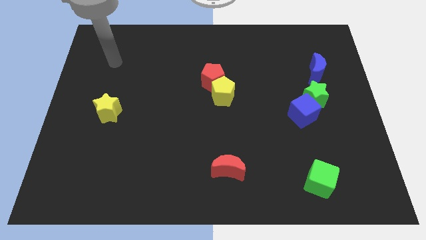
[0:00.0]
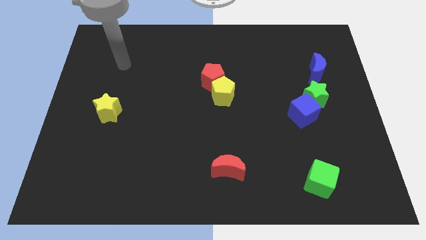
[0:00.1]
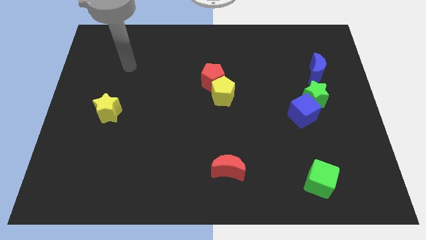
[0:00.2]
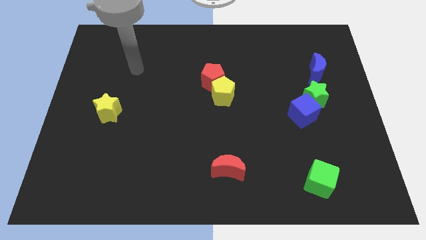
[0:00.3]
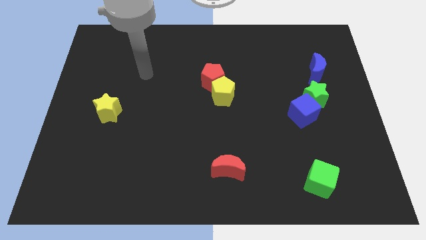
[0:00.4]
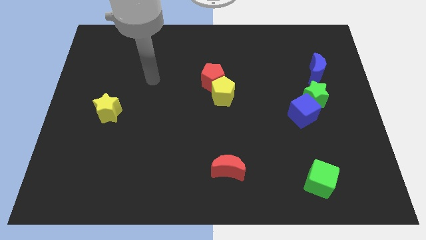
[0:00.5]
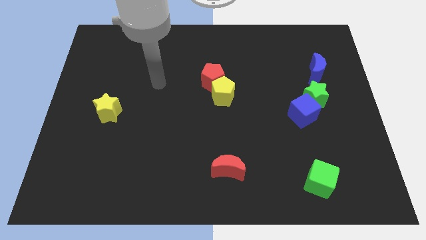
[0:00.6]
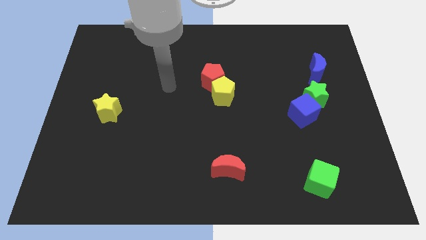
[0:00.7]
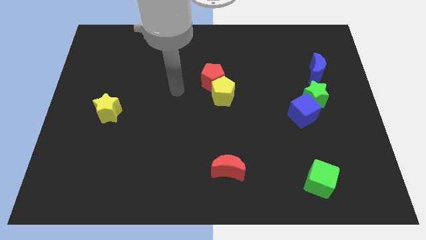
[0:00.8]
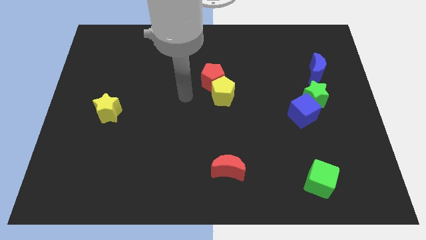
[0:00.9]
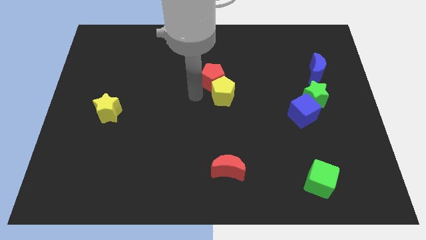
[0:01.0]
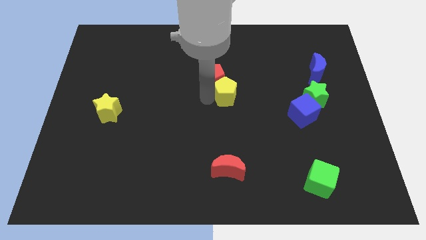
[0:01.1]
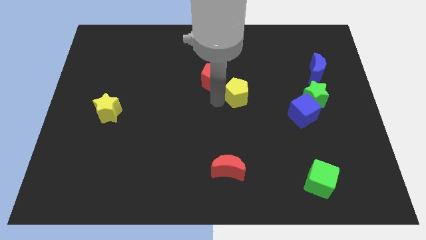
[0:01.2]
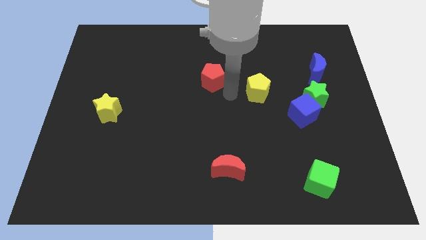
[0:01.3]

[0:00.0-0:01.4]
move the red pentagon away from the yellow pentagon

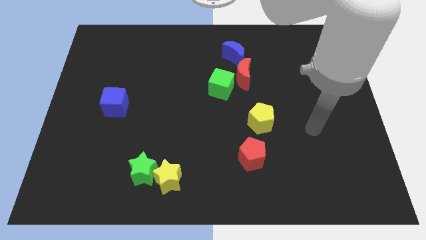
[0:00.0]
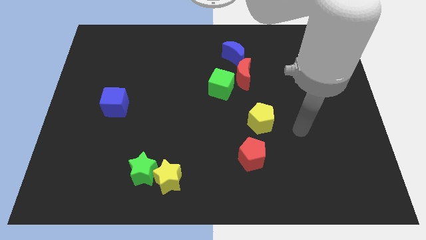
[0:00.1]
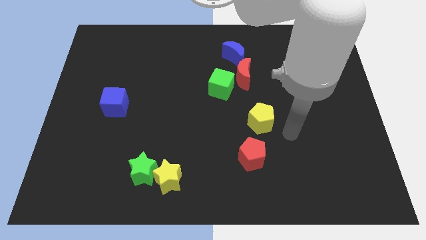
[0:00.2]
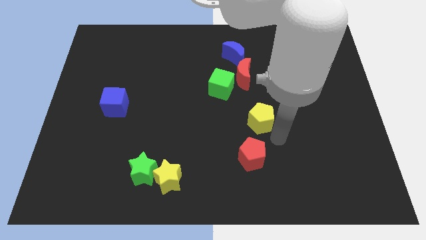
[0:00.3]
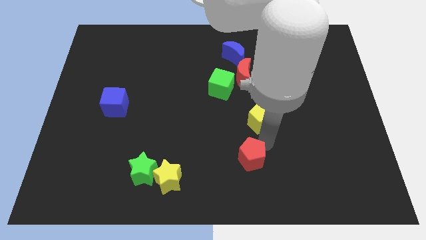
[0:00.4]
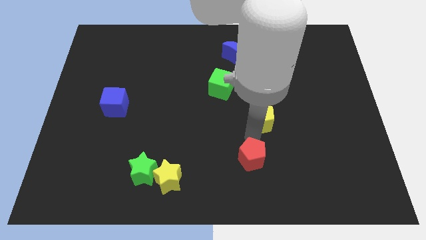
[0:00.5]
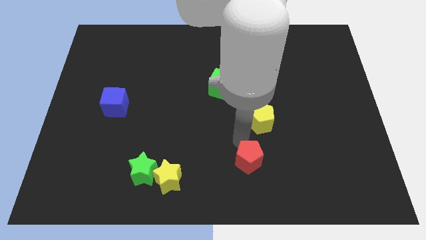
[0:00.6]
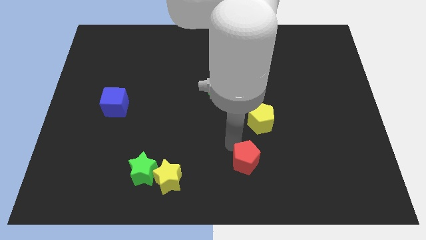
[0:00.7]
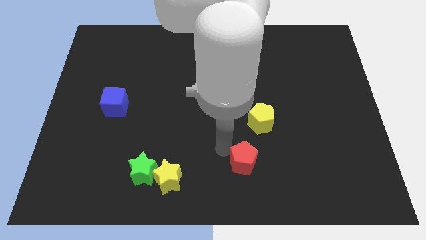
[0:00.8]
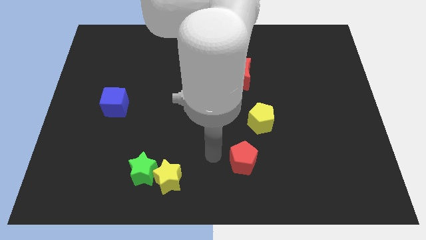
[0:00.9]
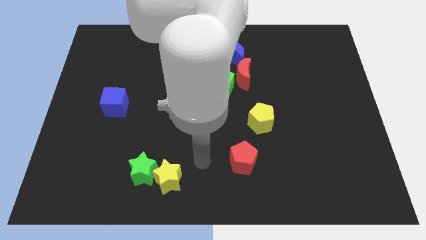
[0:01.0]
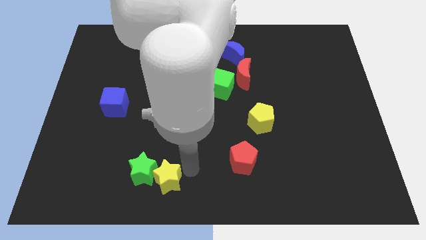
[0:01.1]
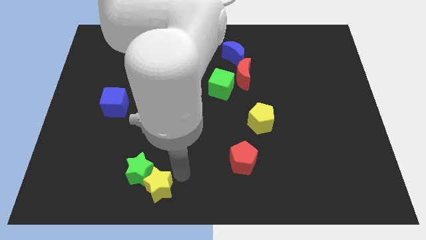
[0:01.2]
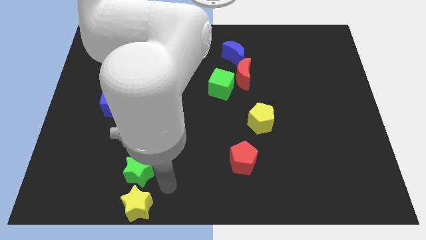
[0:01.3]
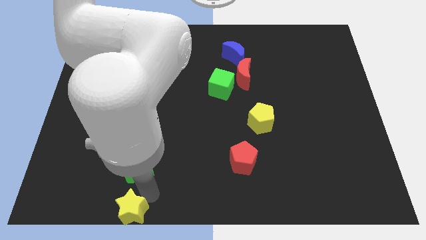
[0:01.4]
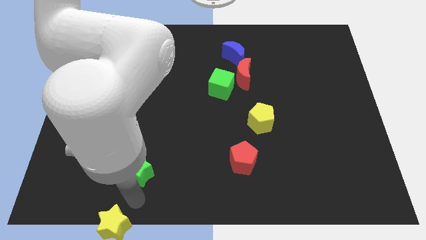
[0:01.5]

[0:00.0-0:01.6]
move the green star away from the yellow star

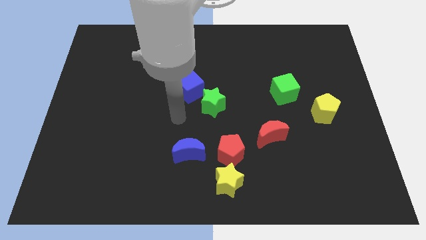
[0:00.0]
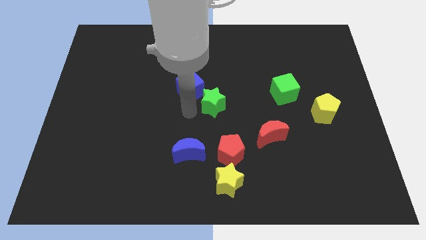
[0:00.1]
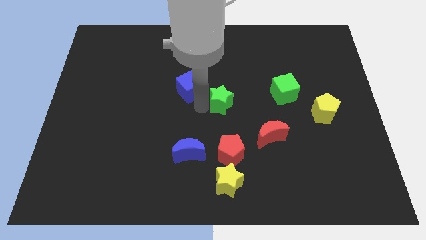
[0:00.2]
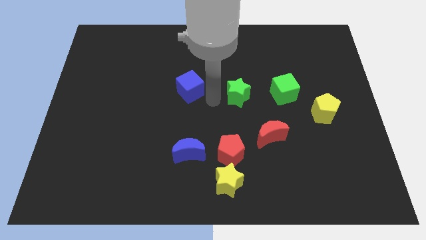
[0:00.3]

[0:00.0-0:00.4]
separate the blue cube from the green star

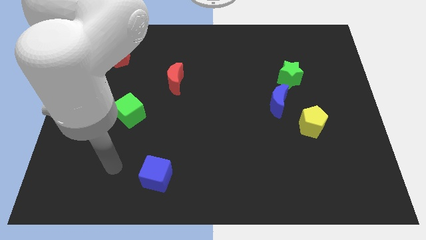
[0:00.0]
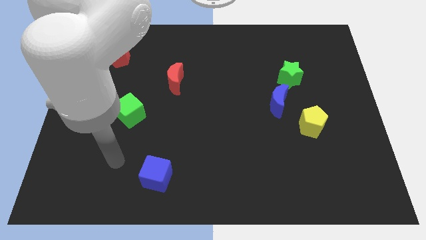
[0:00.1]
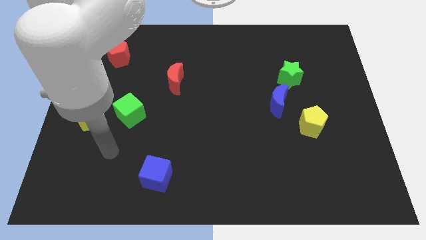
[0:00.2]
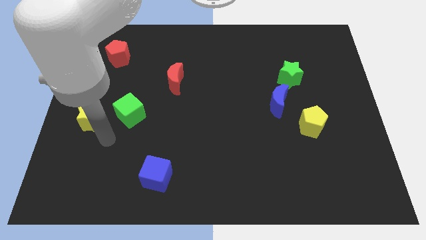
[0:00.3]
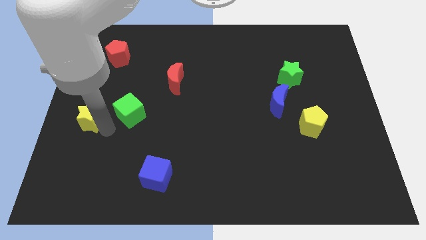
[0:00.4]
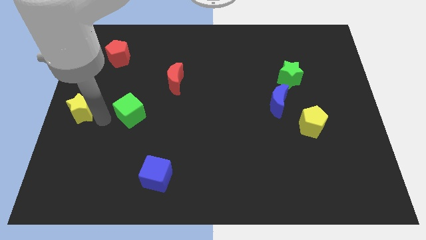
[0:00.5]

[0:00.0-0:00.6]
pull the green cube apart from the yellow star

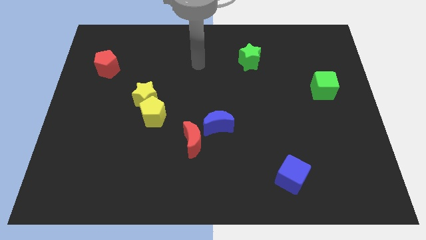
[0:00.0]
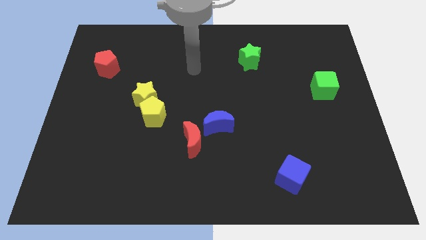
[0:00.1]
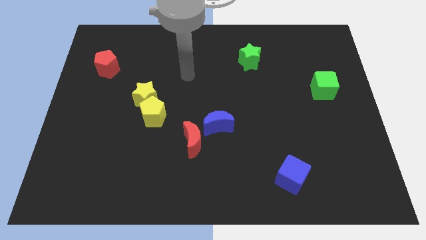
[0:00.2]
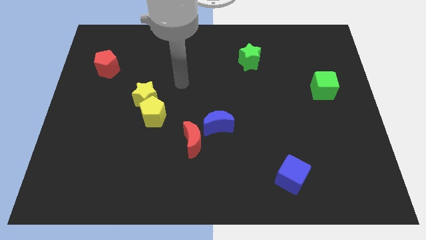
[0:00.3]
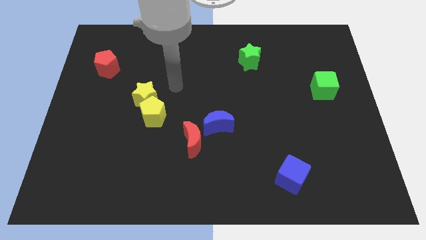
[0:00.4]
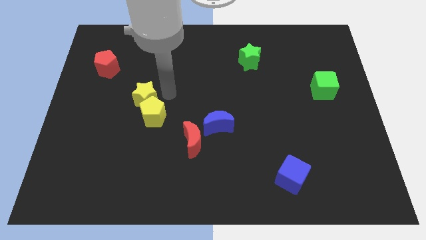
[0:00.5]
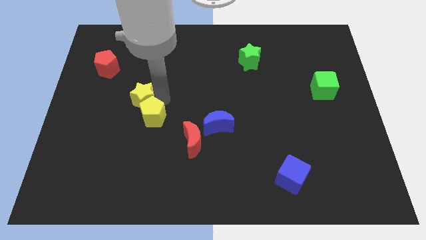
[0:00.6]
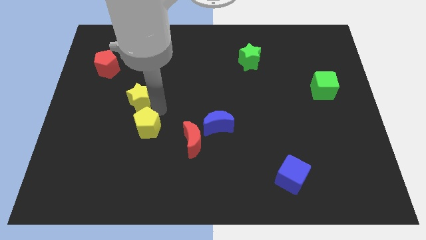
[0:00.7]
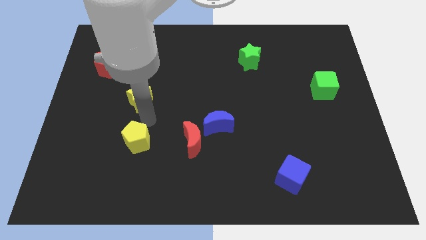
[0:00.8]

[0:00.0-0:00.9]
separate the yellow star from the yellow pentagon

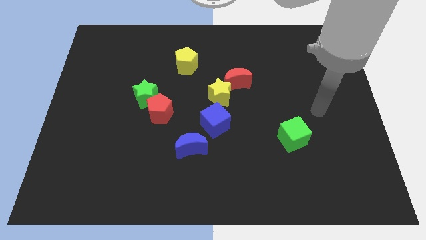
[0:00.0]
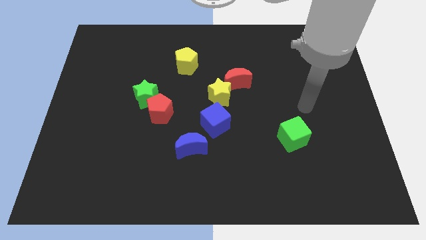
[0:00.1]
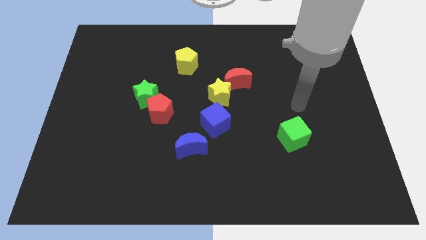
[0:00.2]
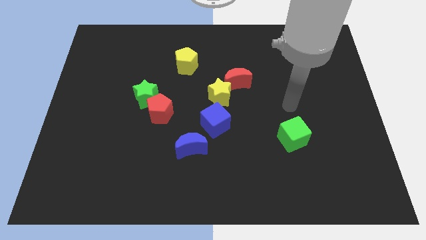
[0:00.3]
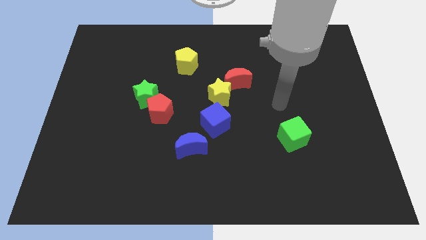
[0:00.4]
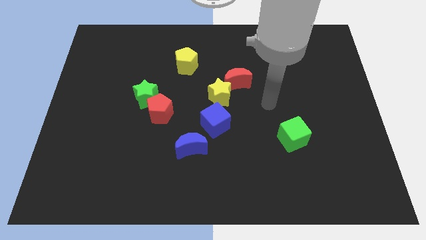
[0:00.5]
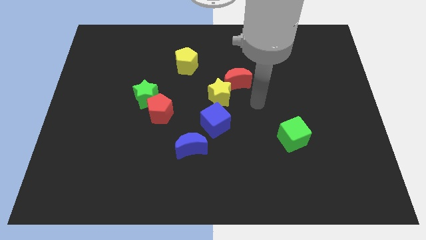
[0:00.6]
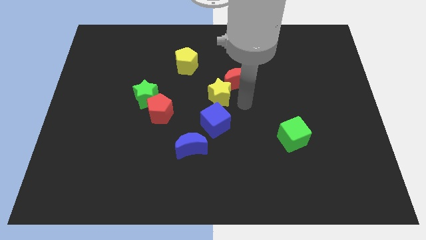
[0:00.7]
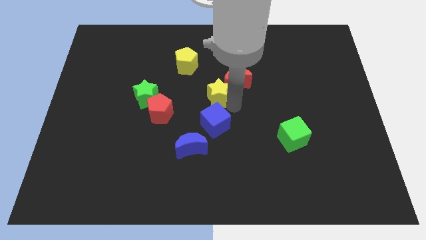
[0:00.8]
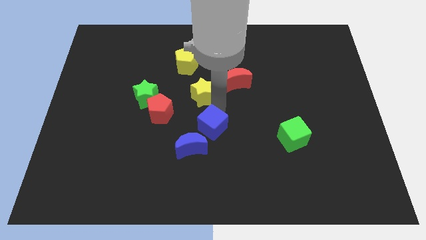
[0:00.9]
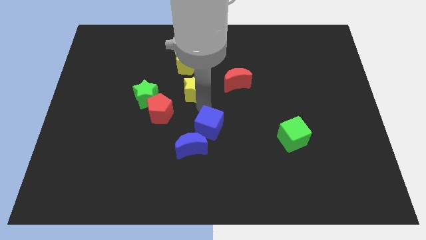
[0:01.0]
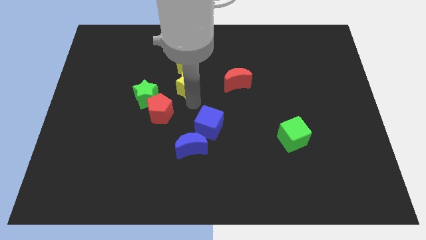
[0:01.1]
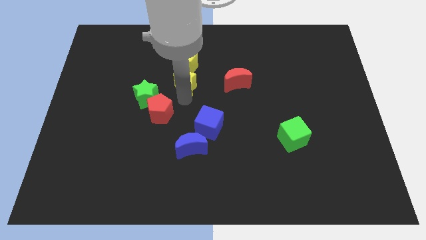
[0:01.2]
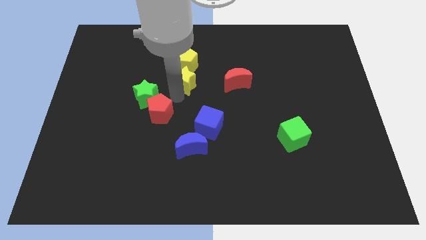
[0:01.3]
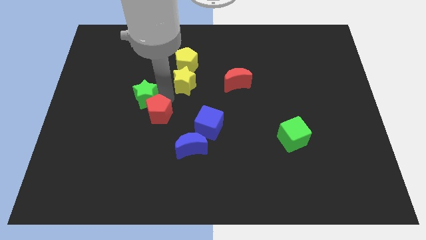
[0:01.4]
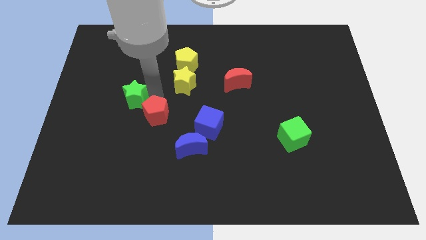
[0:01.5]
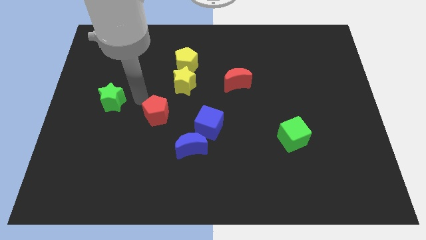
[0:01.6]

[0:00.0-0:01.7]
move the red pentagon away from the green star

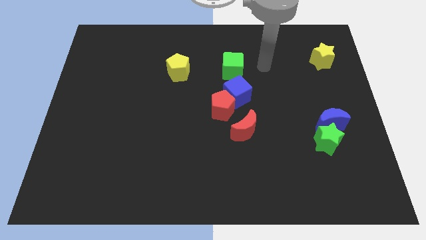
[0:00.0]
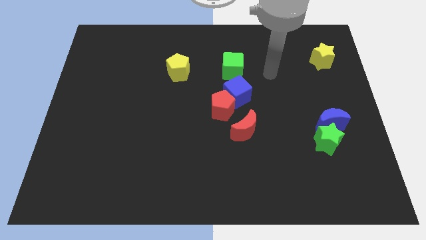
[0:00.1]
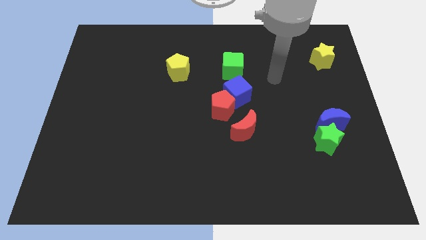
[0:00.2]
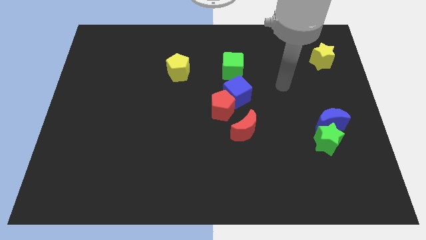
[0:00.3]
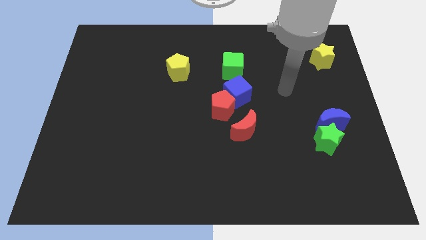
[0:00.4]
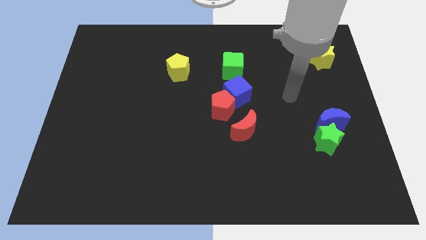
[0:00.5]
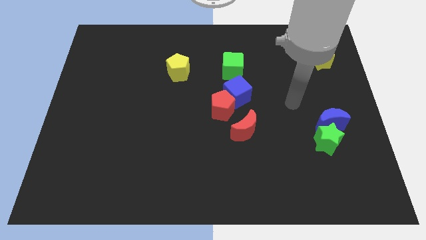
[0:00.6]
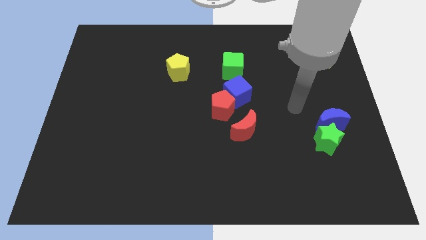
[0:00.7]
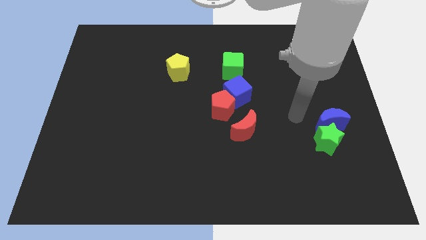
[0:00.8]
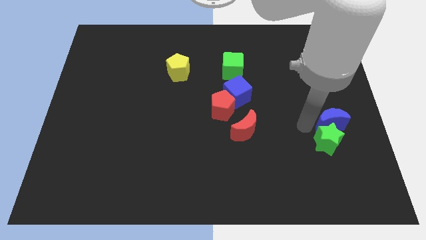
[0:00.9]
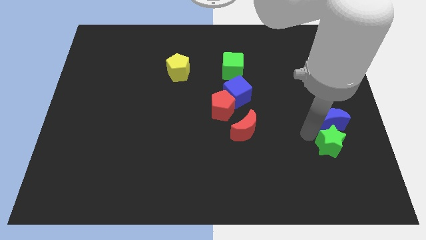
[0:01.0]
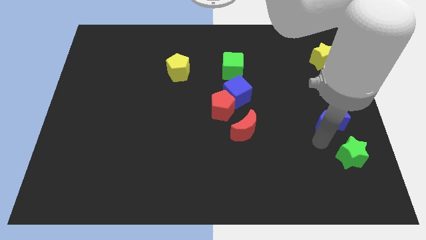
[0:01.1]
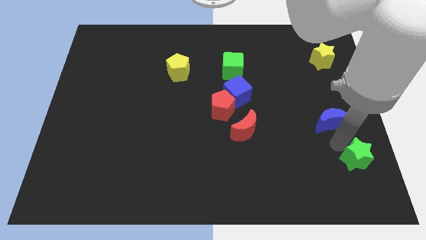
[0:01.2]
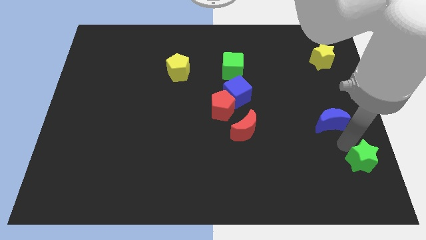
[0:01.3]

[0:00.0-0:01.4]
pull the blue moon apart from the green star

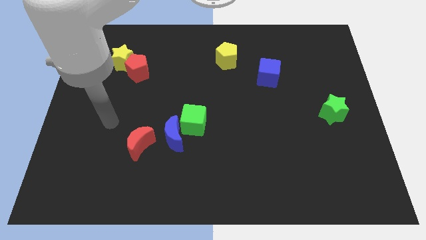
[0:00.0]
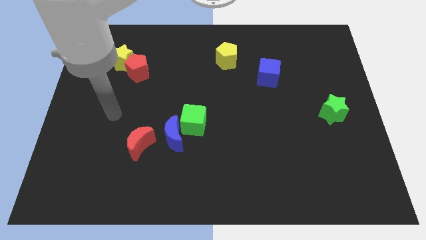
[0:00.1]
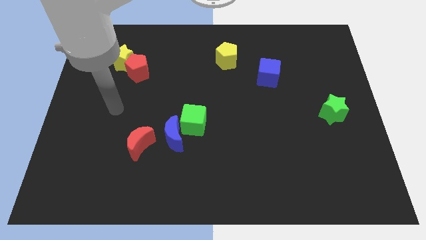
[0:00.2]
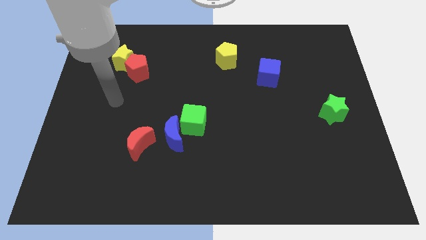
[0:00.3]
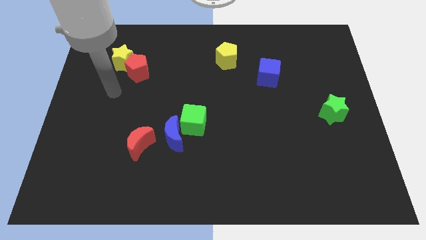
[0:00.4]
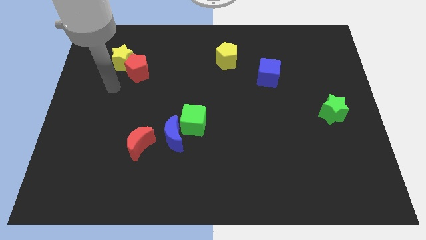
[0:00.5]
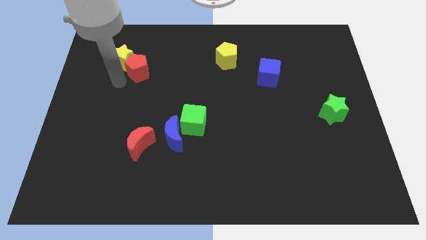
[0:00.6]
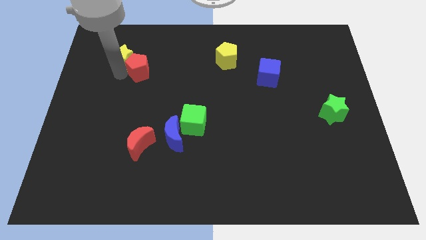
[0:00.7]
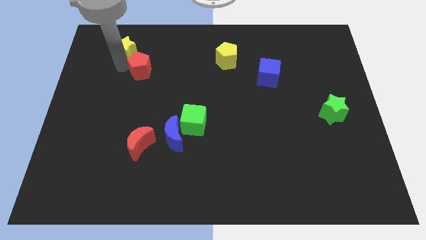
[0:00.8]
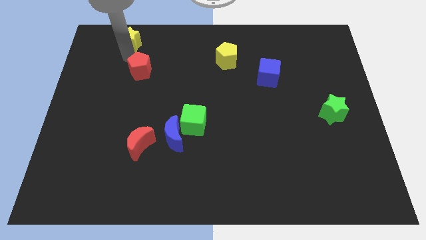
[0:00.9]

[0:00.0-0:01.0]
move the red pentagon away from the yellow star

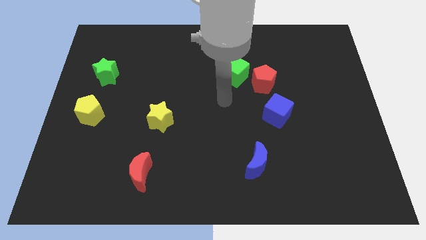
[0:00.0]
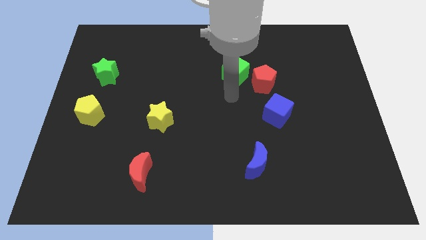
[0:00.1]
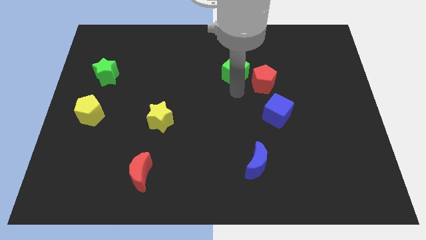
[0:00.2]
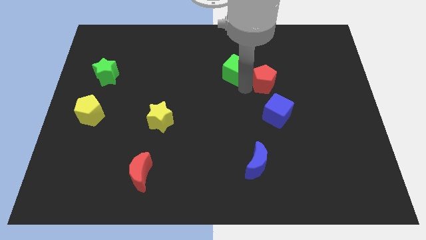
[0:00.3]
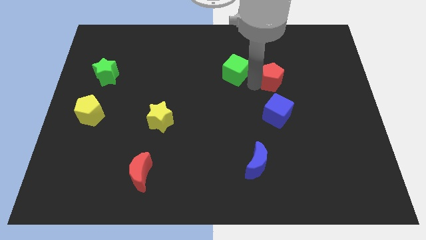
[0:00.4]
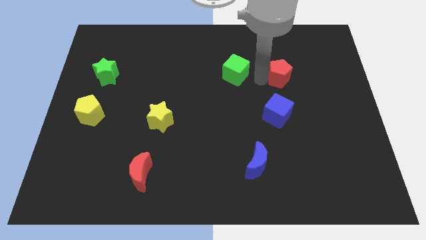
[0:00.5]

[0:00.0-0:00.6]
move the green cube away from the red pentagon
